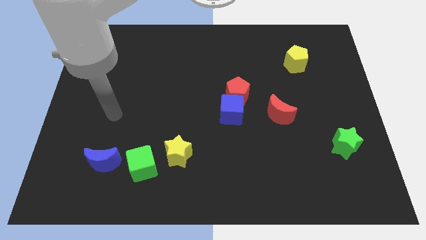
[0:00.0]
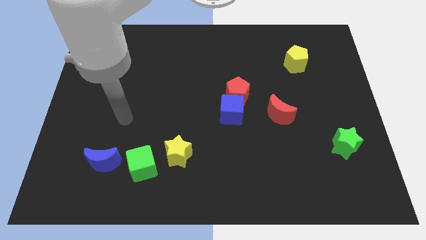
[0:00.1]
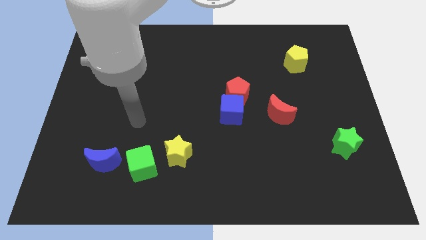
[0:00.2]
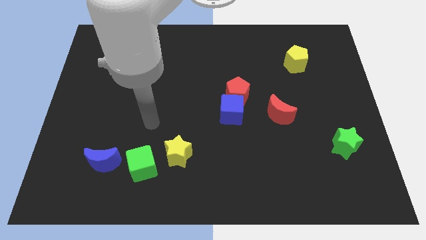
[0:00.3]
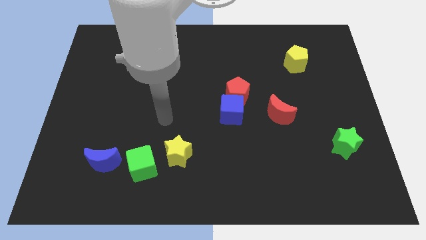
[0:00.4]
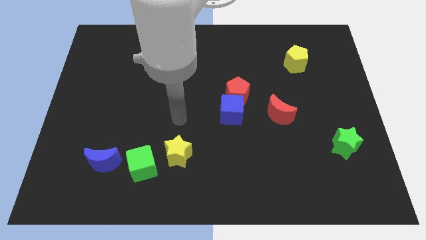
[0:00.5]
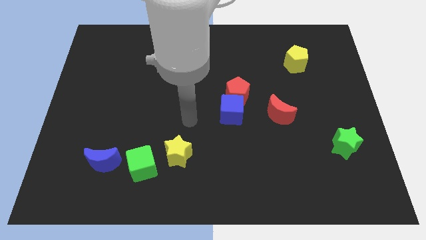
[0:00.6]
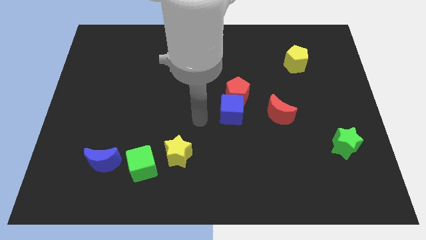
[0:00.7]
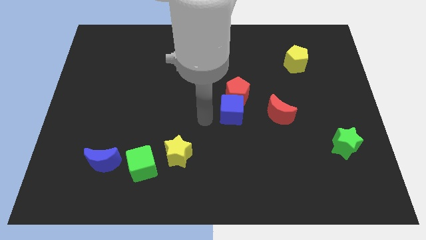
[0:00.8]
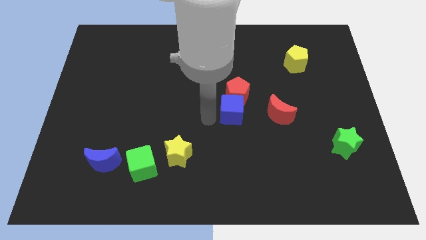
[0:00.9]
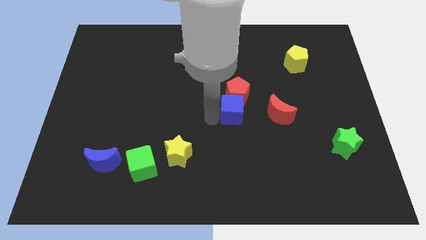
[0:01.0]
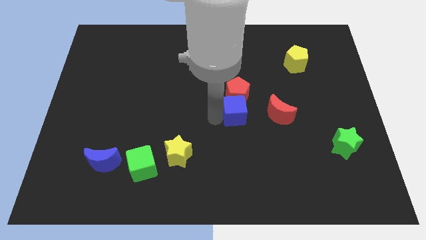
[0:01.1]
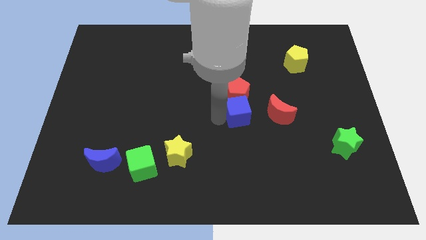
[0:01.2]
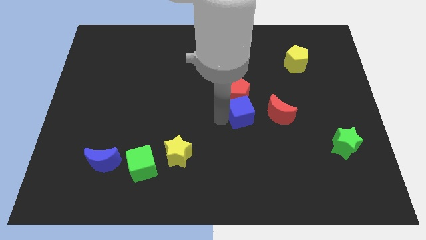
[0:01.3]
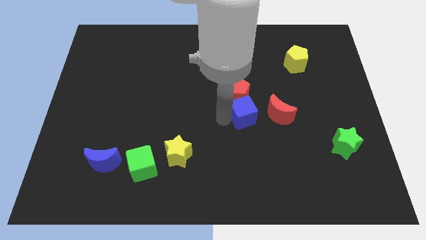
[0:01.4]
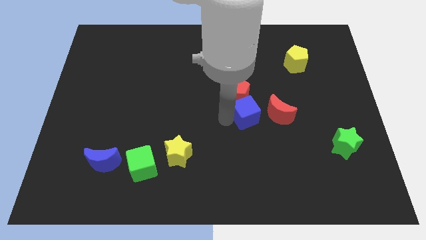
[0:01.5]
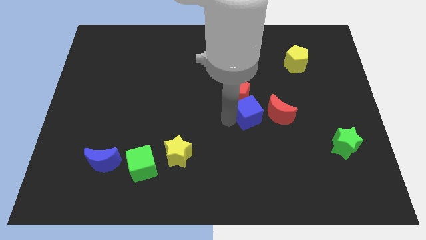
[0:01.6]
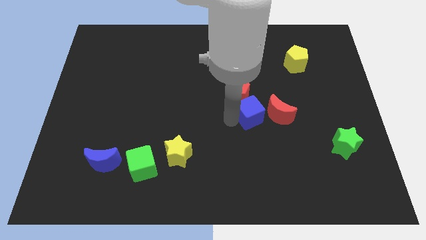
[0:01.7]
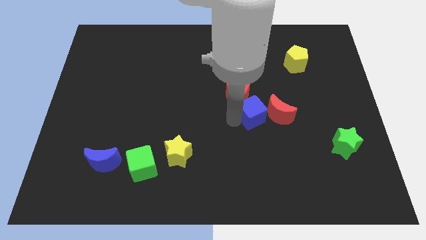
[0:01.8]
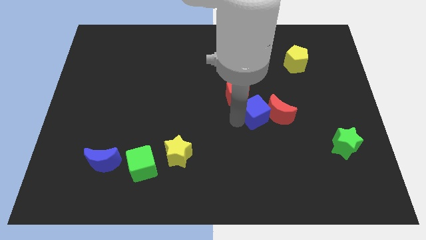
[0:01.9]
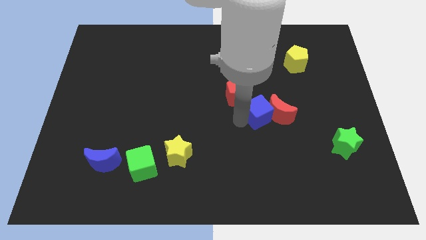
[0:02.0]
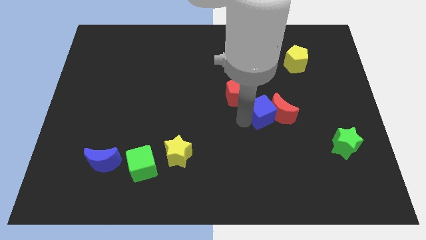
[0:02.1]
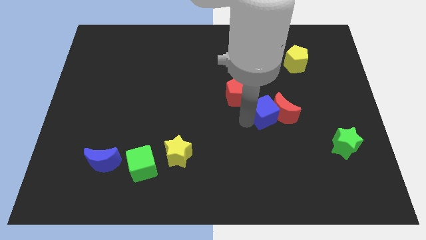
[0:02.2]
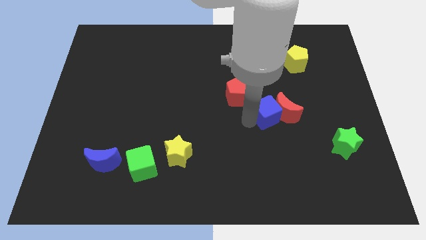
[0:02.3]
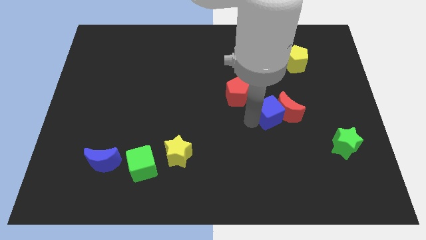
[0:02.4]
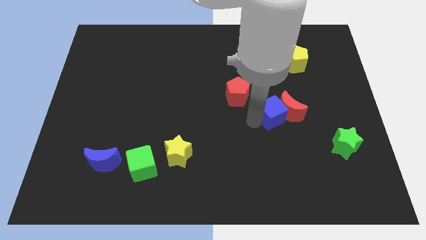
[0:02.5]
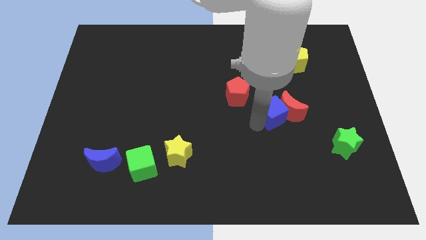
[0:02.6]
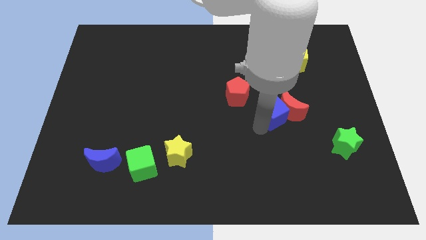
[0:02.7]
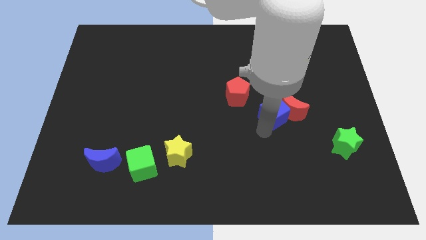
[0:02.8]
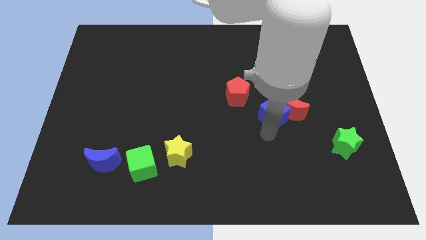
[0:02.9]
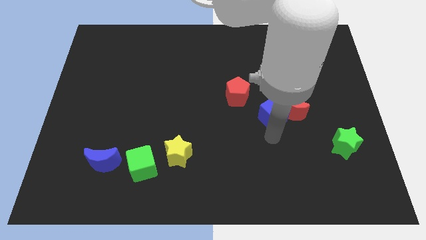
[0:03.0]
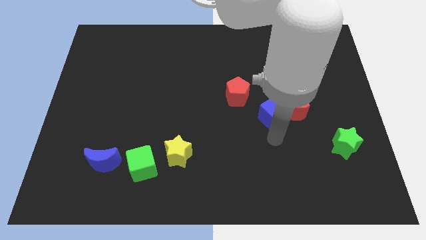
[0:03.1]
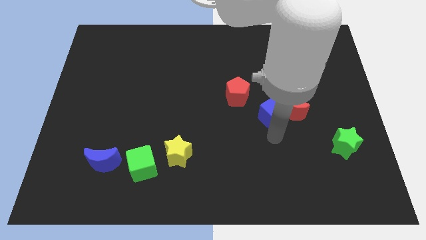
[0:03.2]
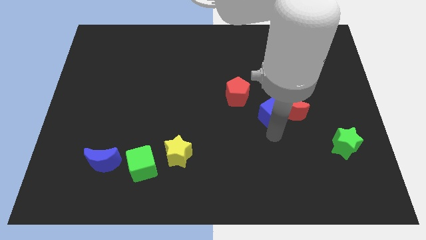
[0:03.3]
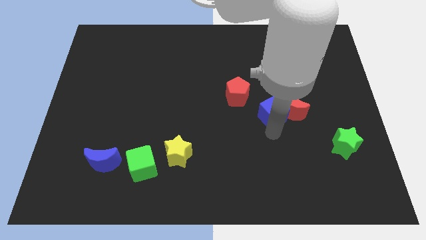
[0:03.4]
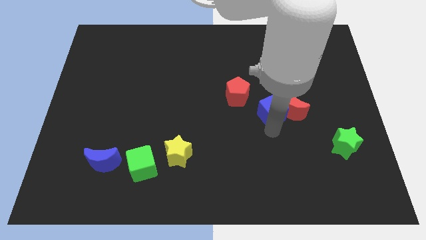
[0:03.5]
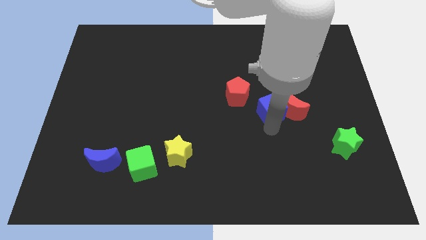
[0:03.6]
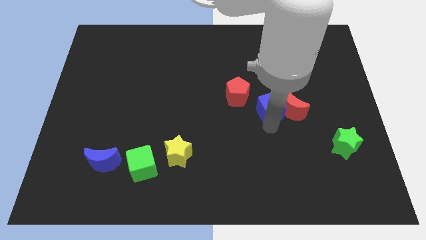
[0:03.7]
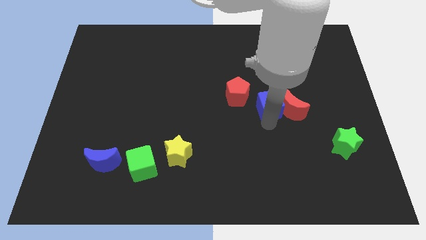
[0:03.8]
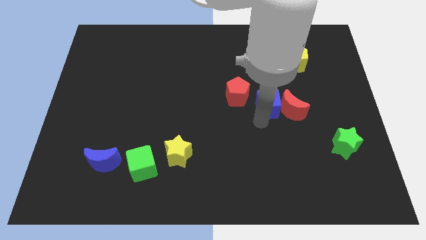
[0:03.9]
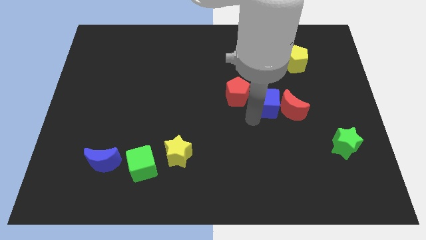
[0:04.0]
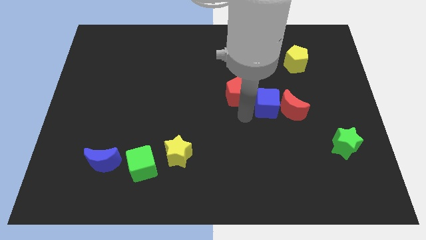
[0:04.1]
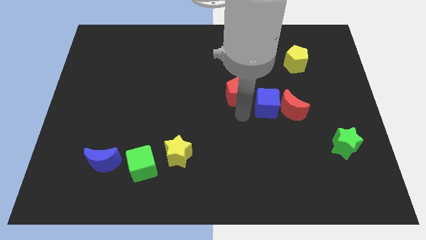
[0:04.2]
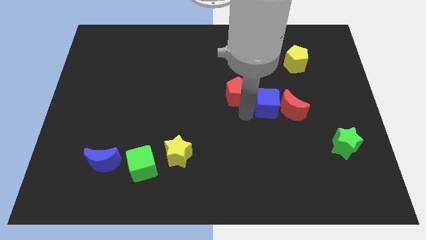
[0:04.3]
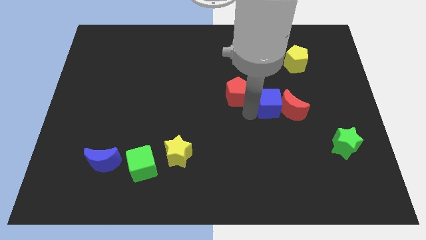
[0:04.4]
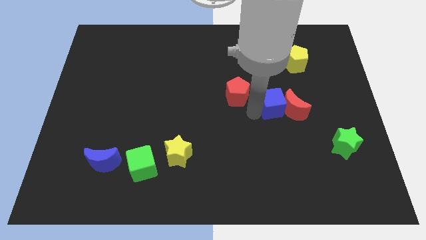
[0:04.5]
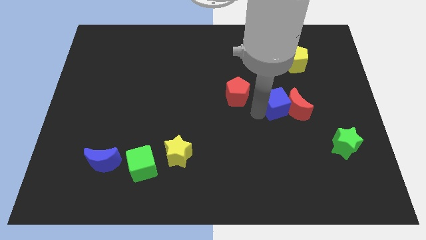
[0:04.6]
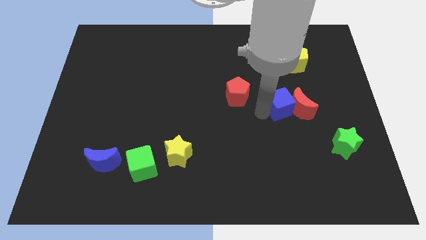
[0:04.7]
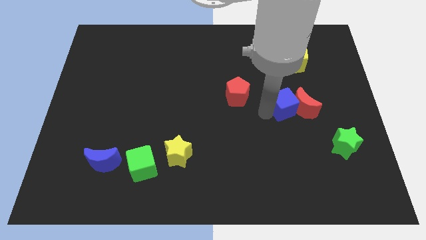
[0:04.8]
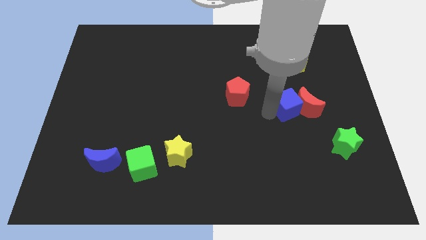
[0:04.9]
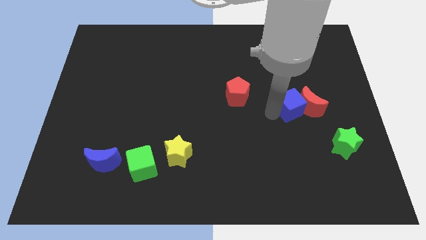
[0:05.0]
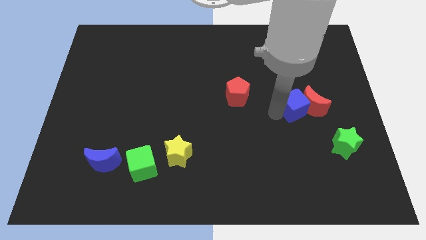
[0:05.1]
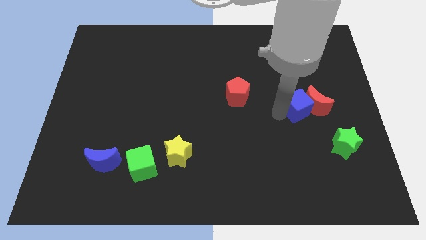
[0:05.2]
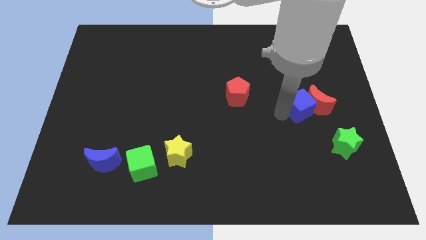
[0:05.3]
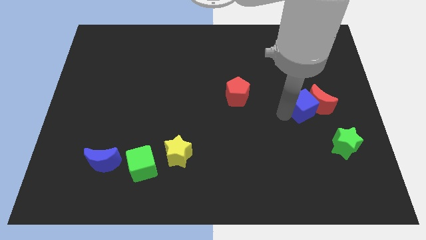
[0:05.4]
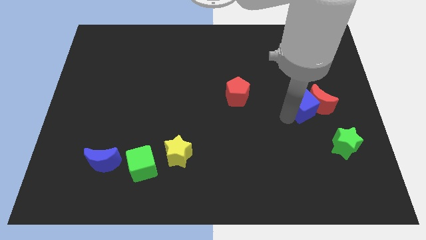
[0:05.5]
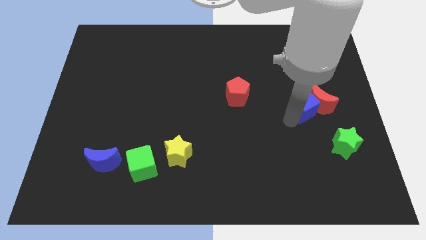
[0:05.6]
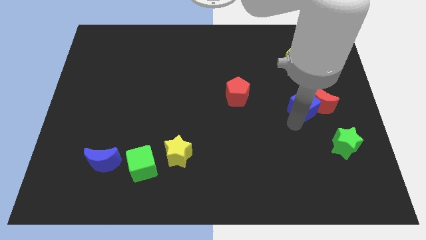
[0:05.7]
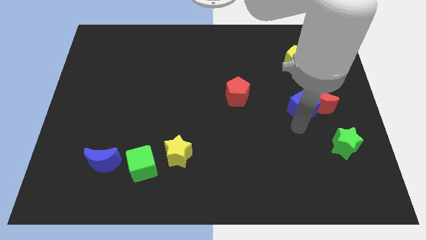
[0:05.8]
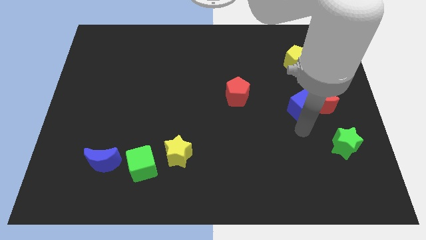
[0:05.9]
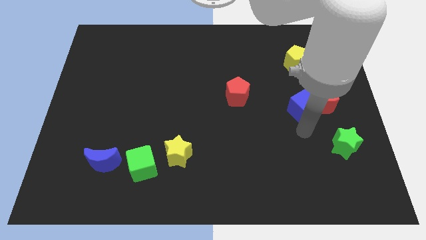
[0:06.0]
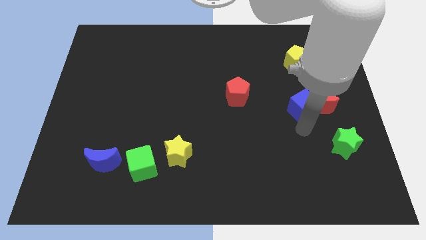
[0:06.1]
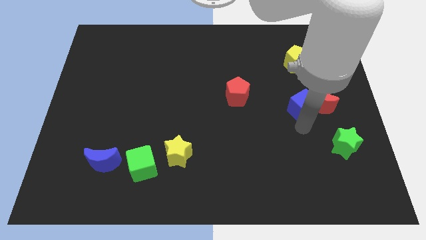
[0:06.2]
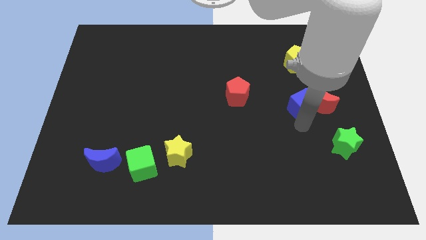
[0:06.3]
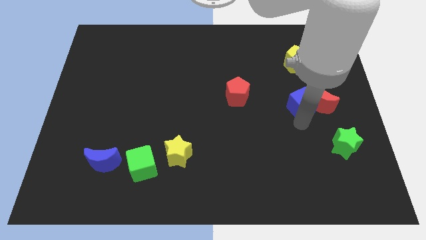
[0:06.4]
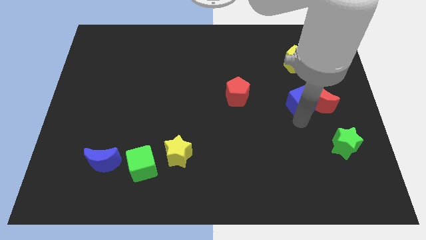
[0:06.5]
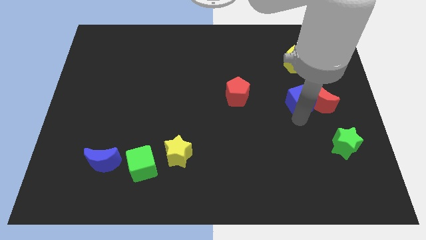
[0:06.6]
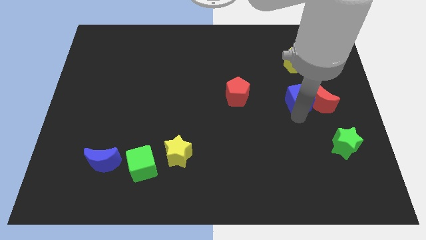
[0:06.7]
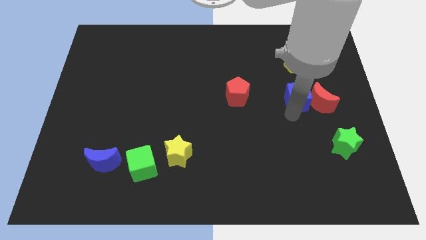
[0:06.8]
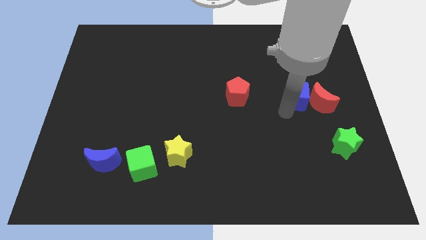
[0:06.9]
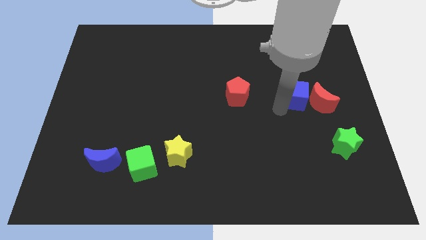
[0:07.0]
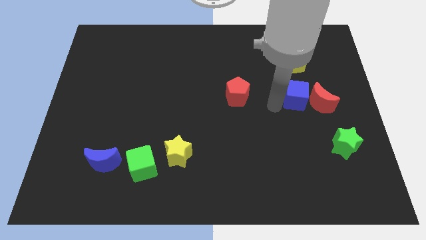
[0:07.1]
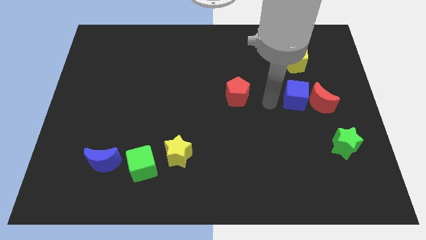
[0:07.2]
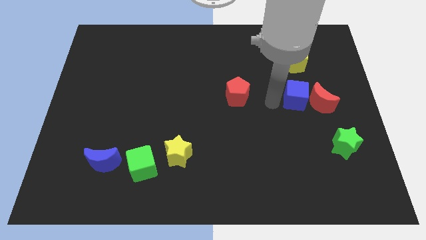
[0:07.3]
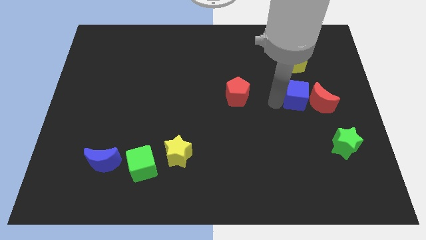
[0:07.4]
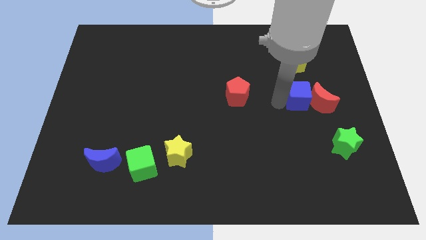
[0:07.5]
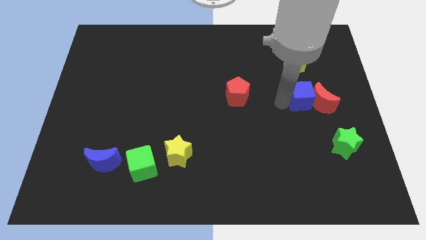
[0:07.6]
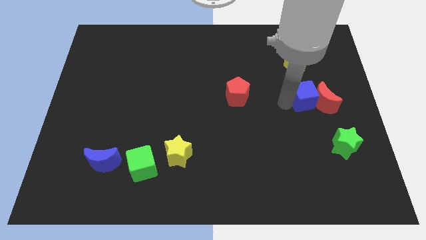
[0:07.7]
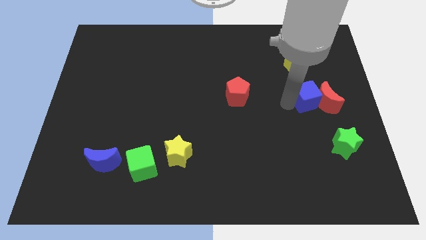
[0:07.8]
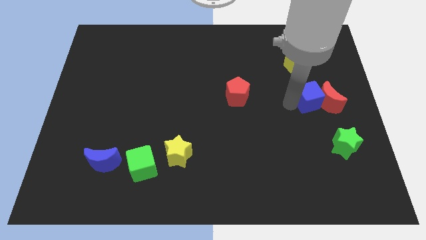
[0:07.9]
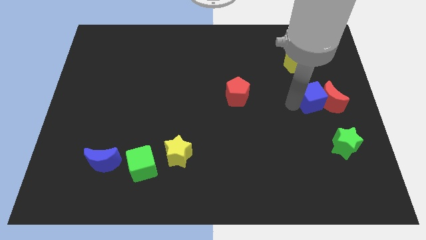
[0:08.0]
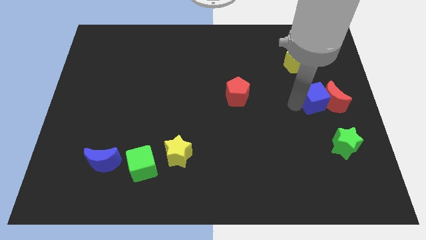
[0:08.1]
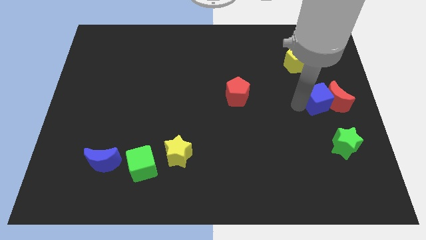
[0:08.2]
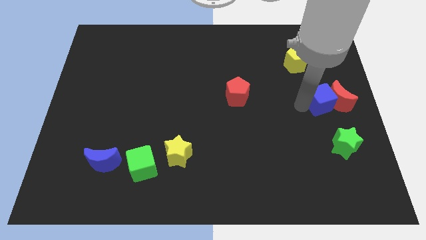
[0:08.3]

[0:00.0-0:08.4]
push the blue cube to the center right
